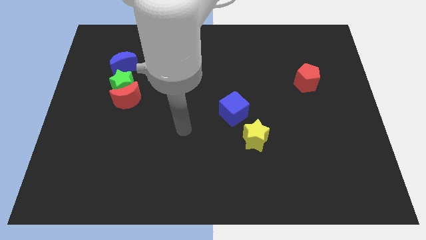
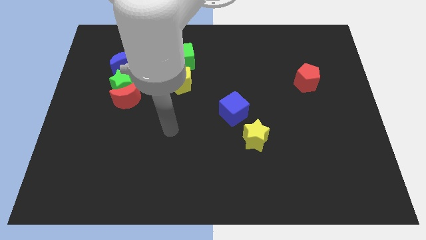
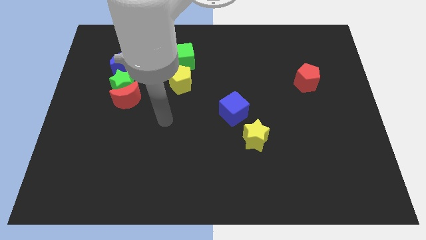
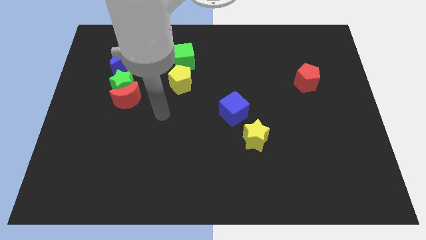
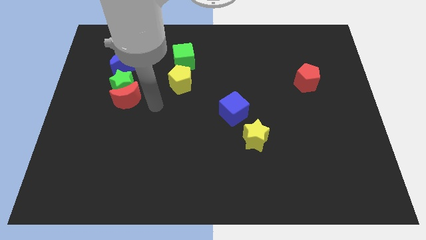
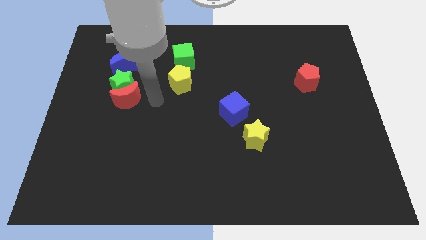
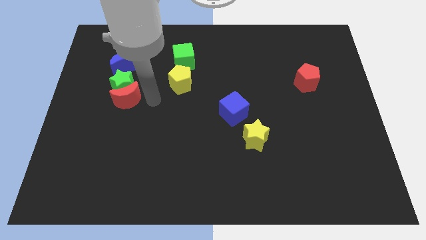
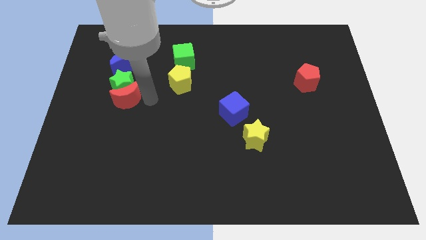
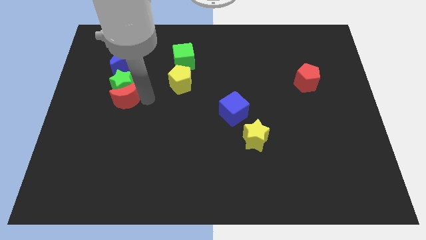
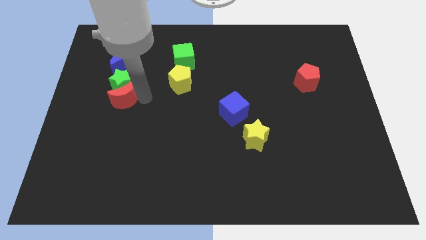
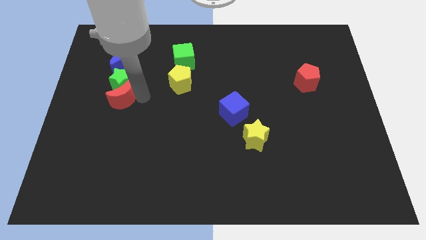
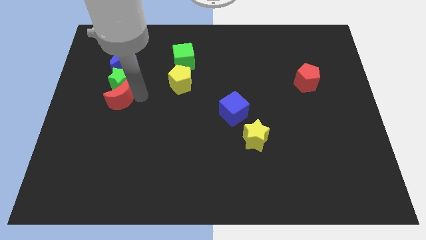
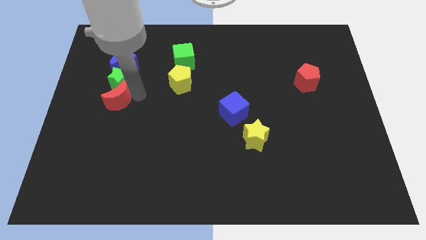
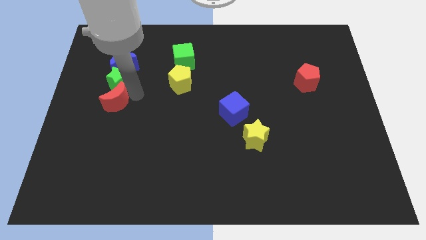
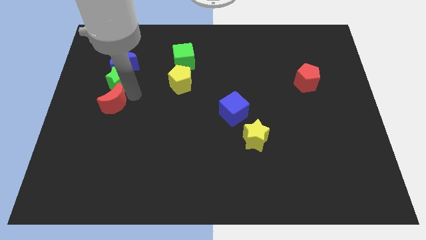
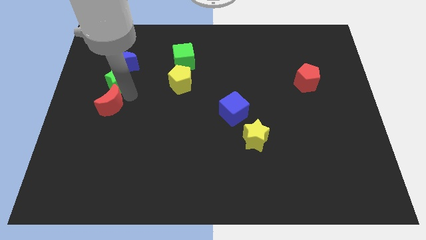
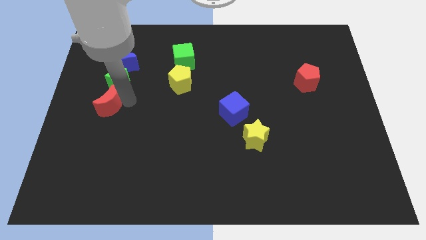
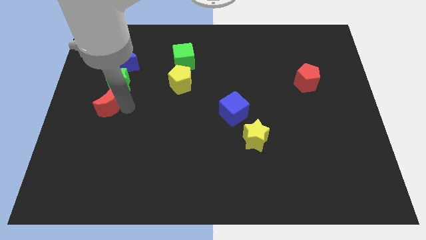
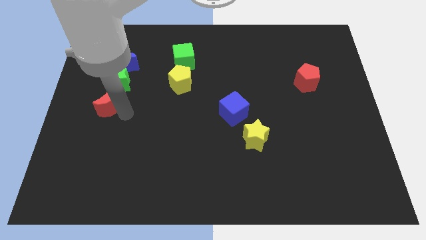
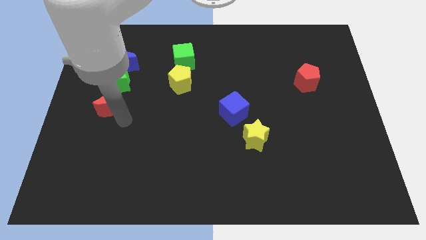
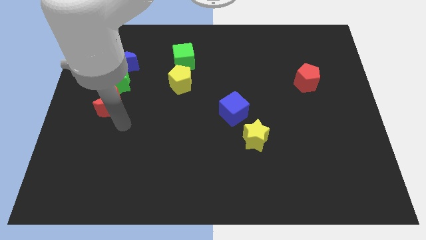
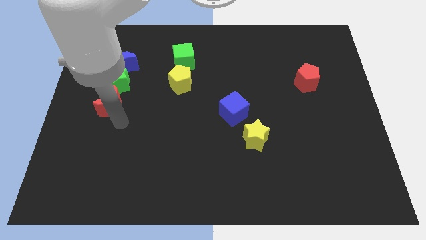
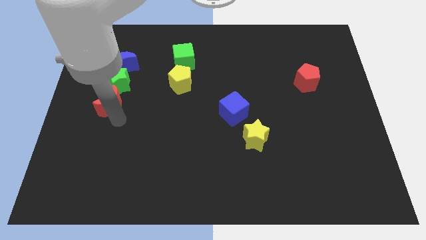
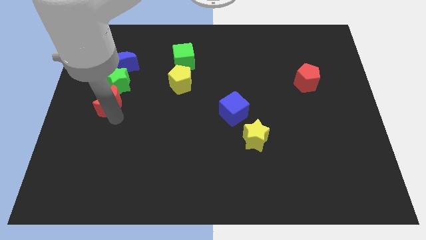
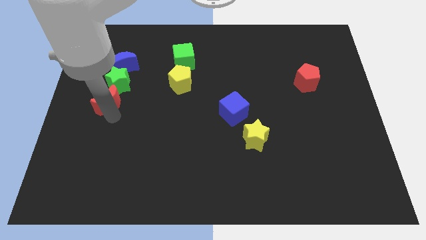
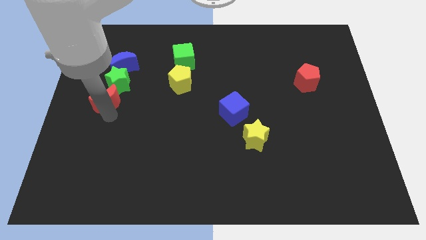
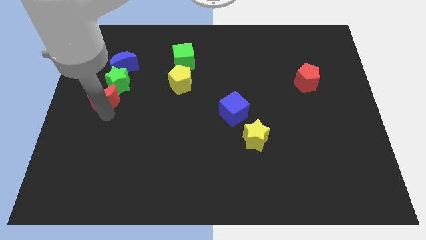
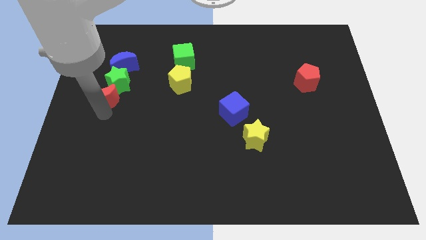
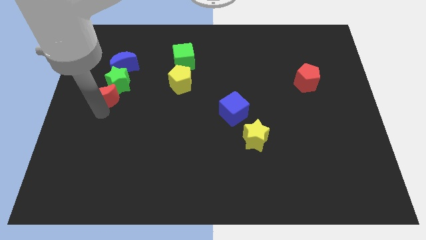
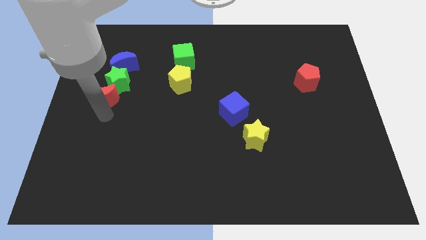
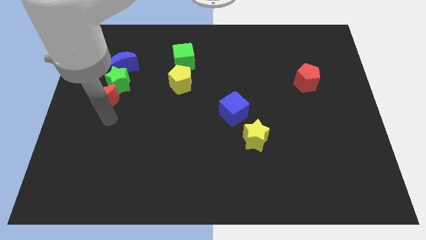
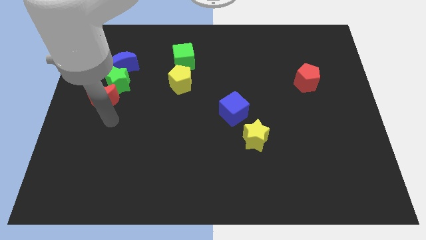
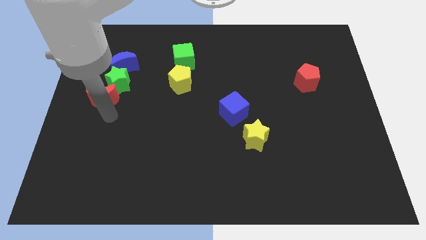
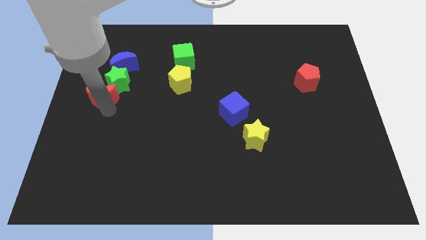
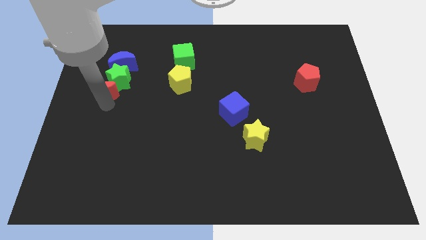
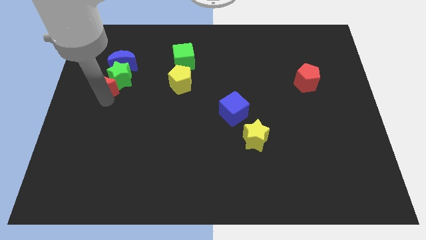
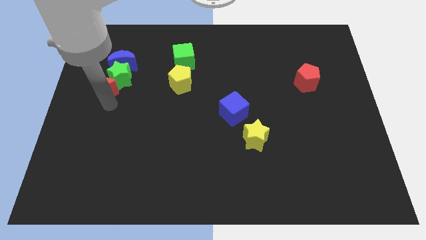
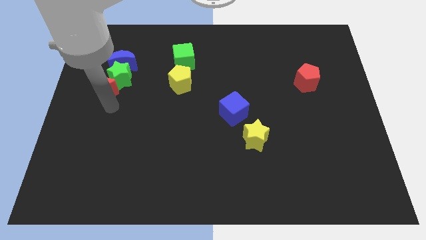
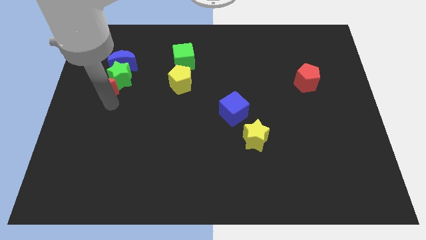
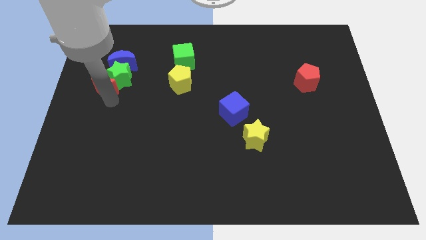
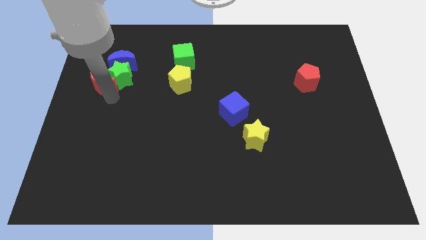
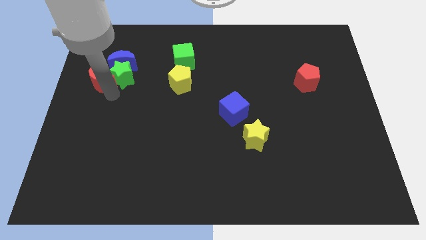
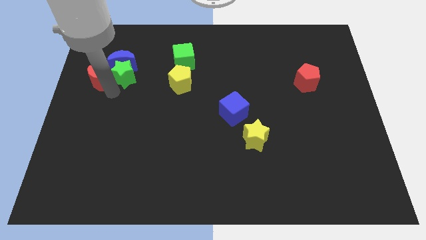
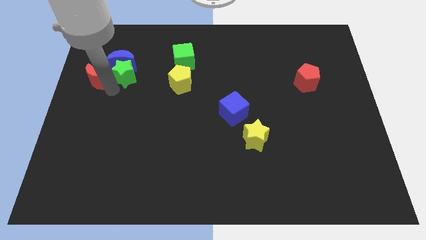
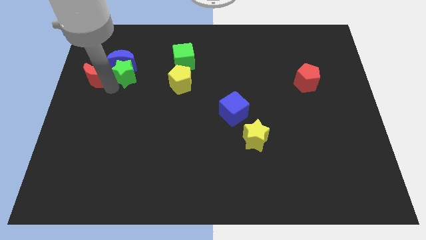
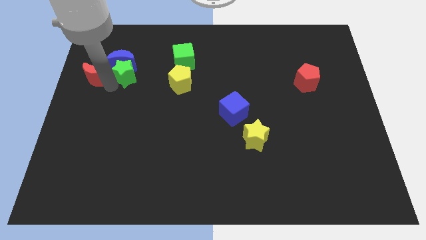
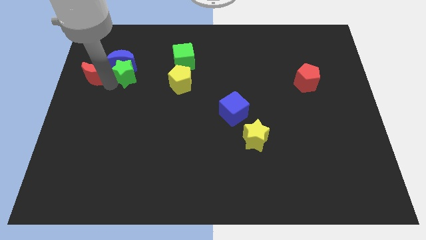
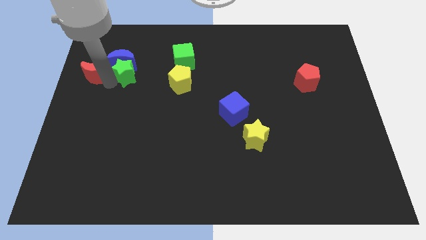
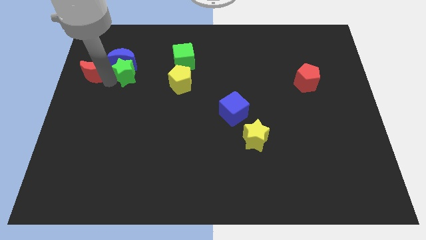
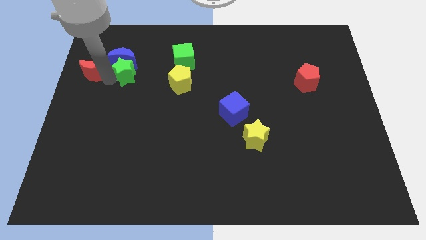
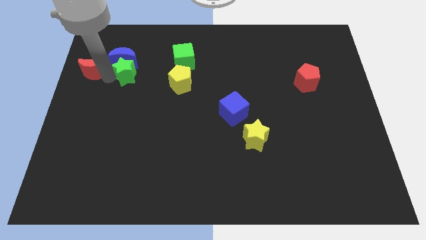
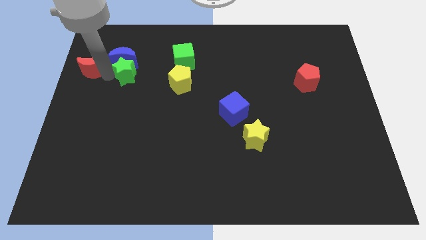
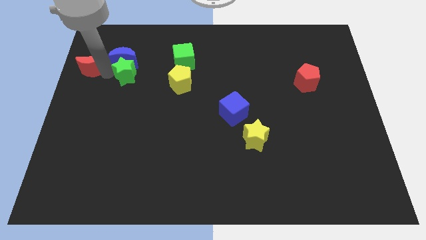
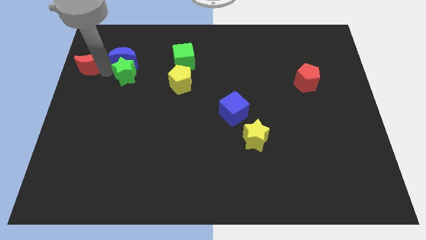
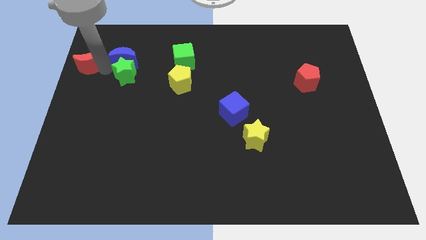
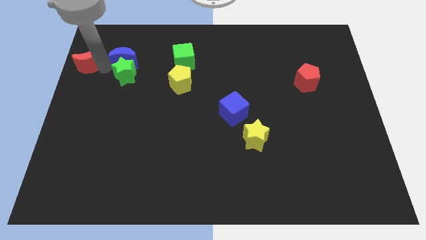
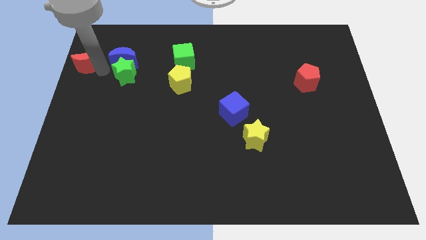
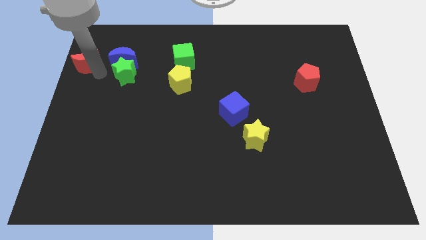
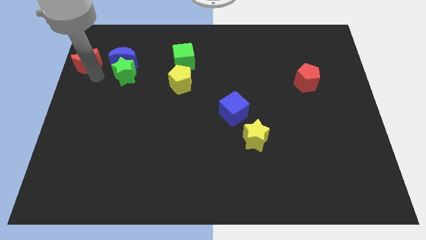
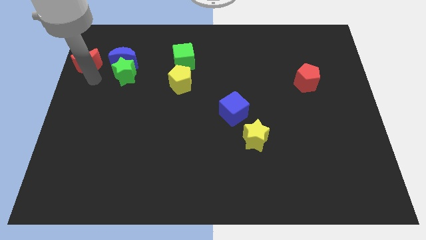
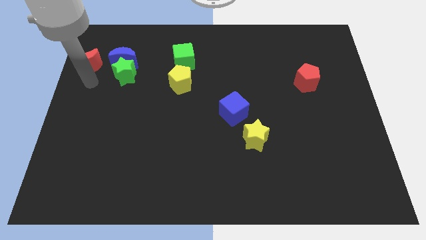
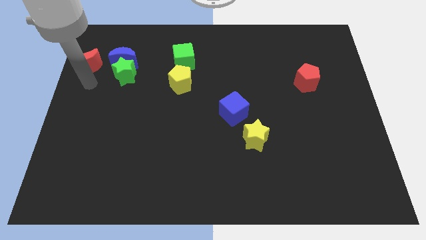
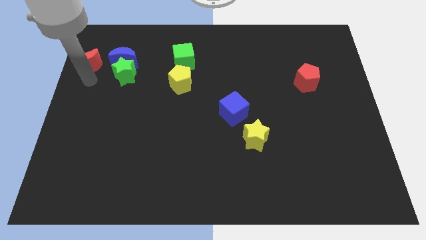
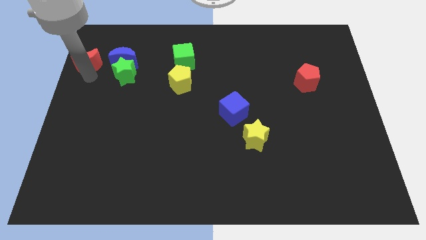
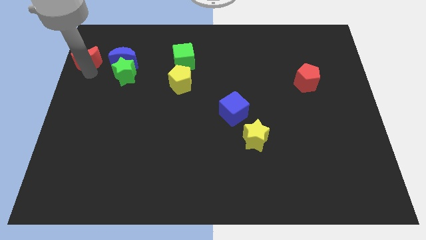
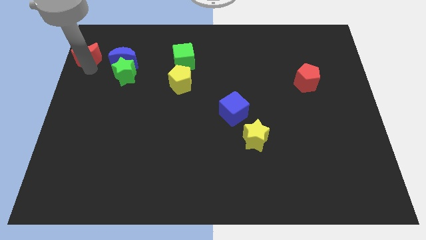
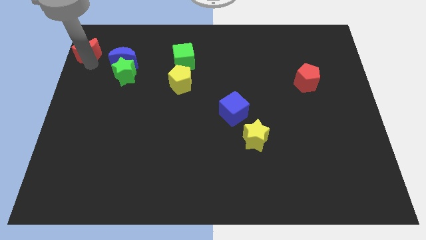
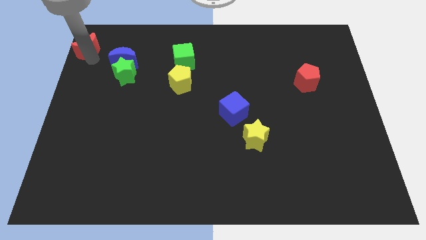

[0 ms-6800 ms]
move the red moon to the upper left corner
